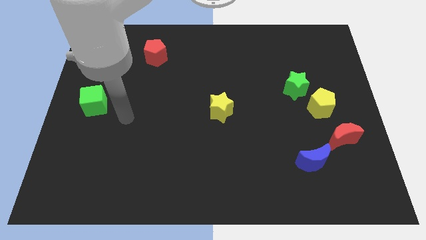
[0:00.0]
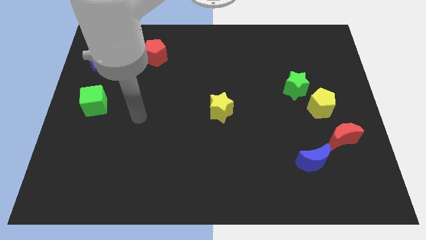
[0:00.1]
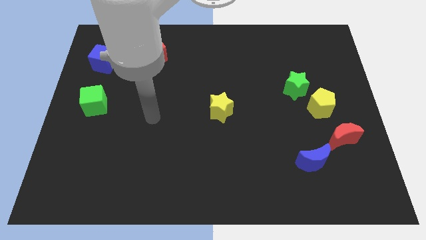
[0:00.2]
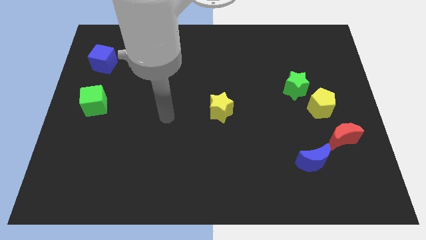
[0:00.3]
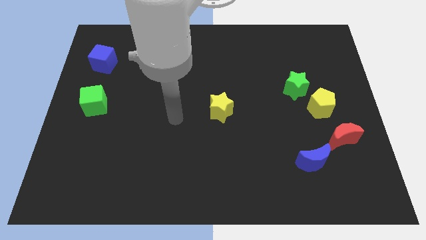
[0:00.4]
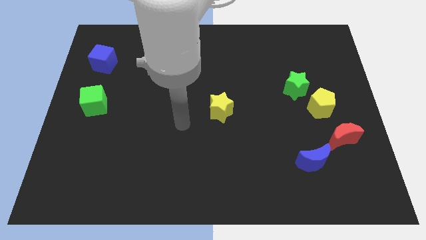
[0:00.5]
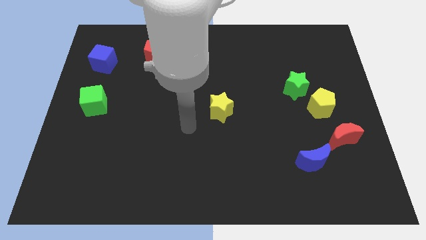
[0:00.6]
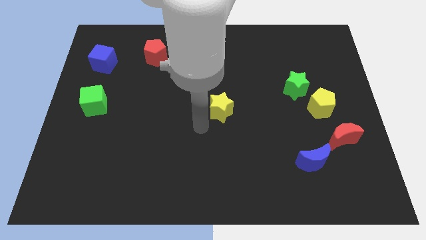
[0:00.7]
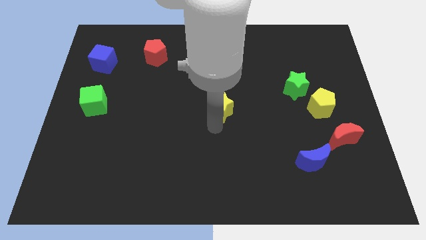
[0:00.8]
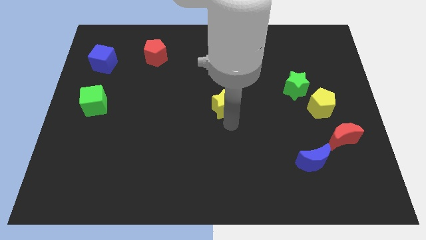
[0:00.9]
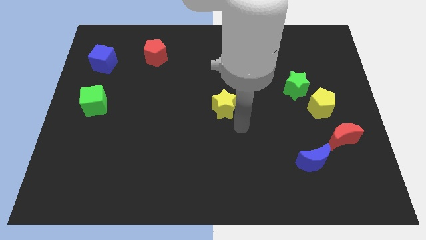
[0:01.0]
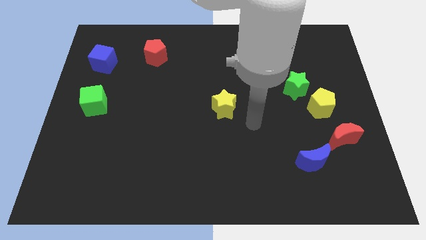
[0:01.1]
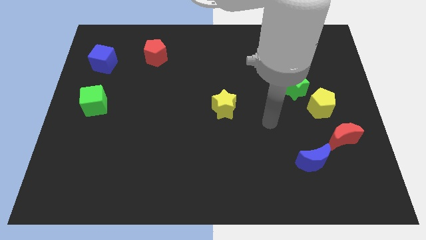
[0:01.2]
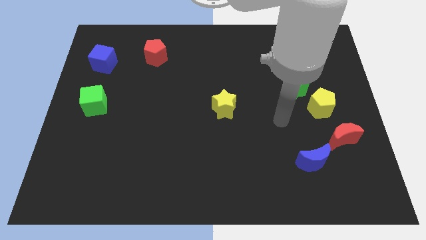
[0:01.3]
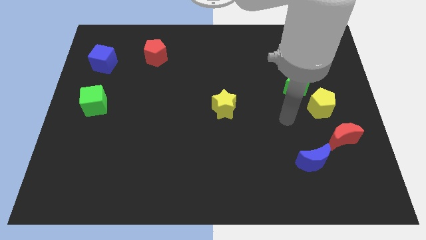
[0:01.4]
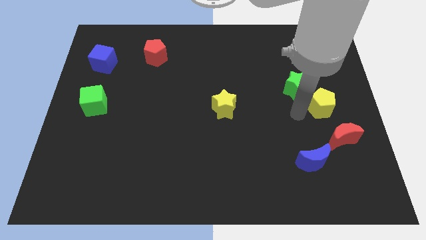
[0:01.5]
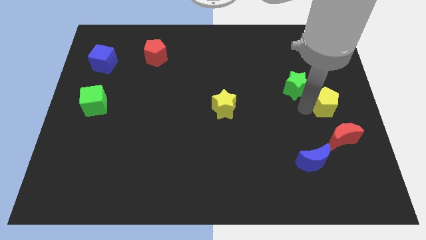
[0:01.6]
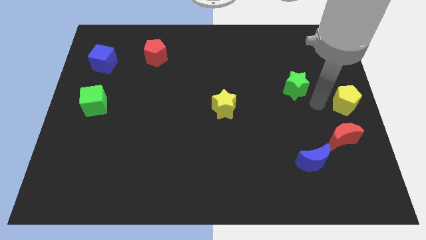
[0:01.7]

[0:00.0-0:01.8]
pull the green star apart from the yellow pentagon

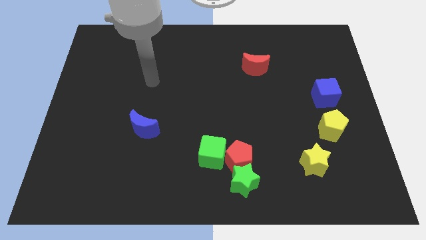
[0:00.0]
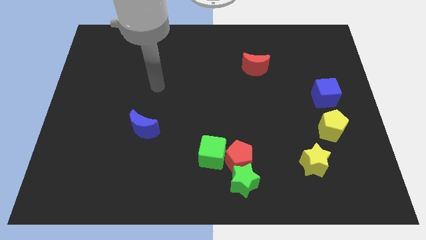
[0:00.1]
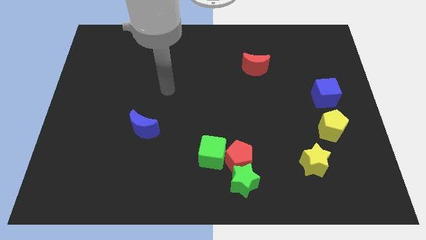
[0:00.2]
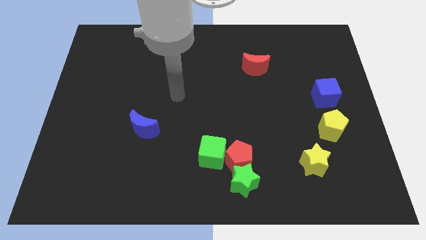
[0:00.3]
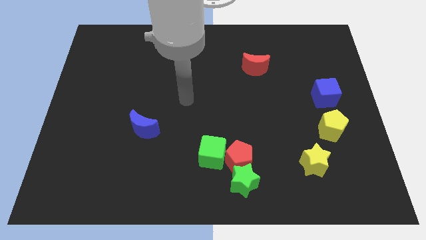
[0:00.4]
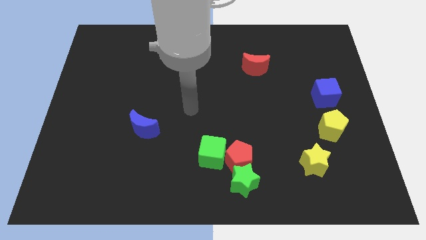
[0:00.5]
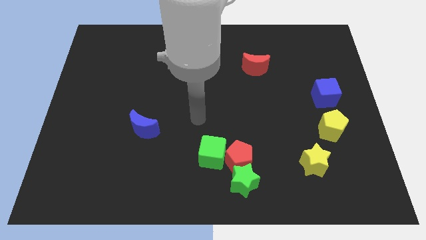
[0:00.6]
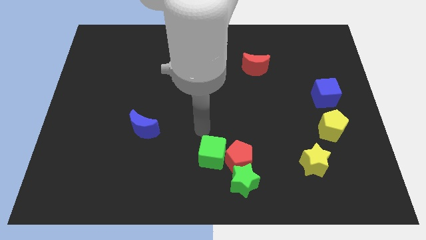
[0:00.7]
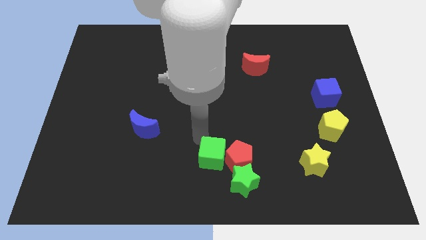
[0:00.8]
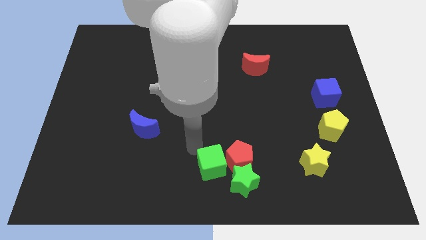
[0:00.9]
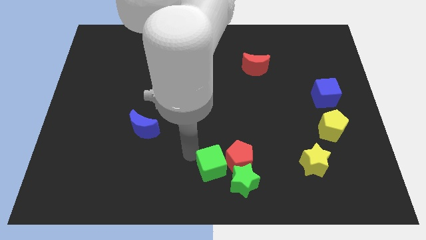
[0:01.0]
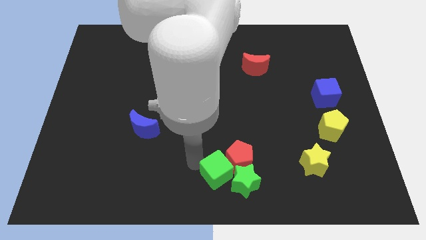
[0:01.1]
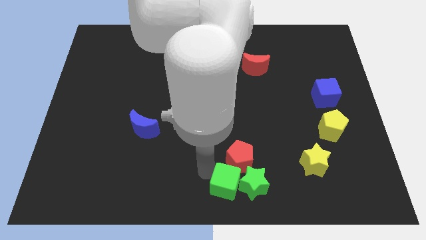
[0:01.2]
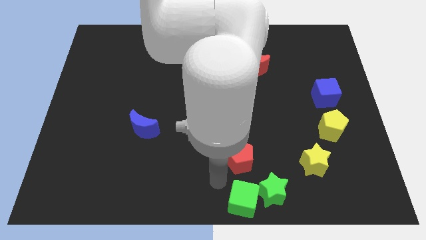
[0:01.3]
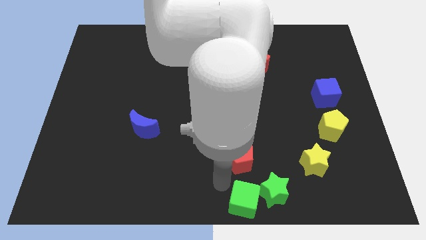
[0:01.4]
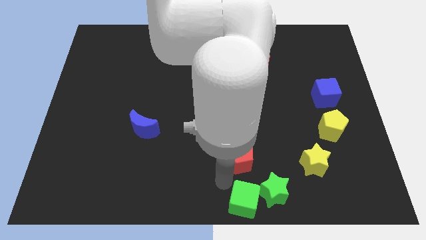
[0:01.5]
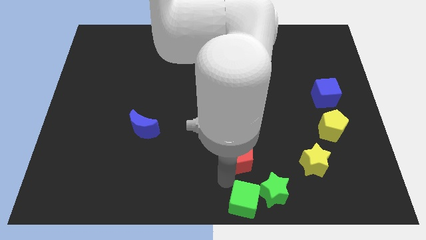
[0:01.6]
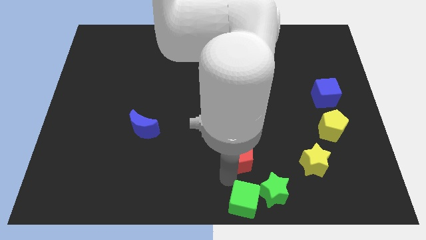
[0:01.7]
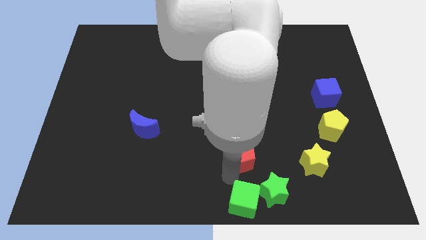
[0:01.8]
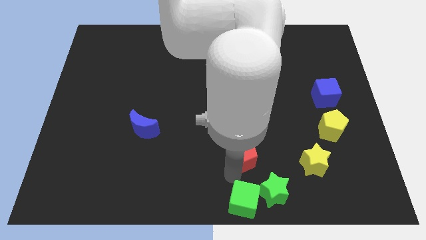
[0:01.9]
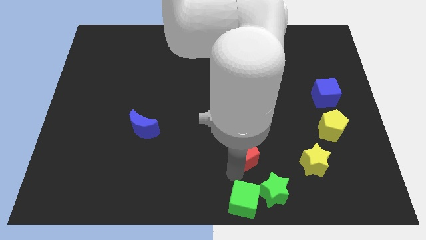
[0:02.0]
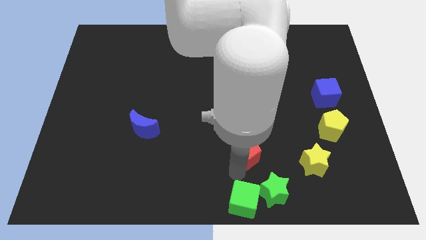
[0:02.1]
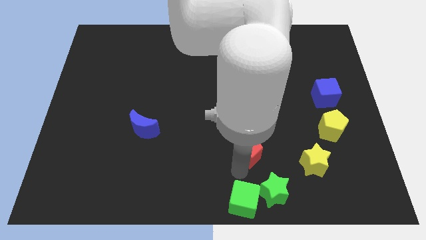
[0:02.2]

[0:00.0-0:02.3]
move the red pentagon away from the green star and green cube

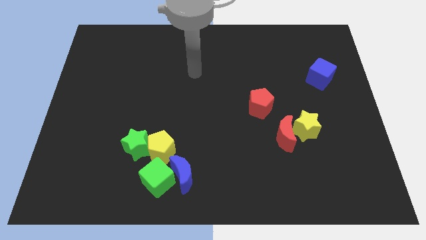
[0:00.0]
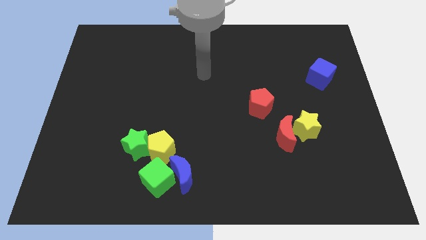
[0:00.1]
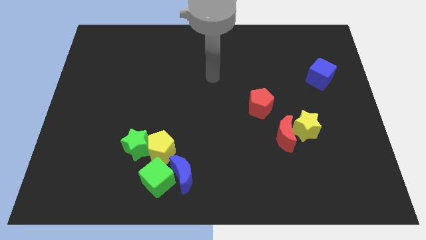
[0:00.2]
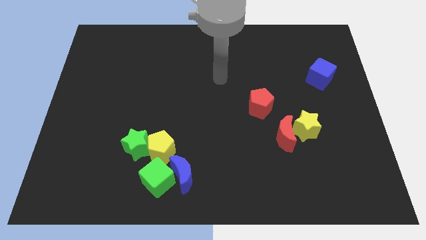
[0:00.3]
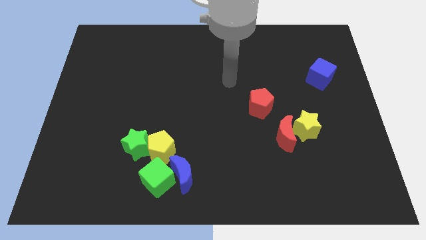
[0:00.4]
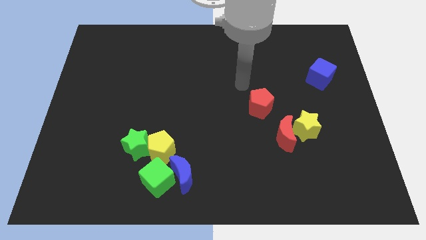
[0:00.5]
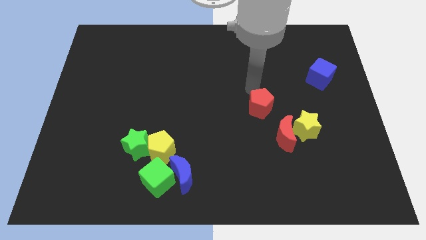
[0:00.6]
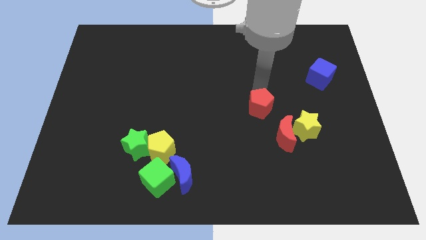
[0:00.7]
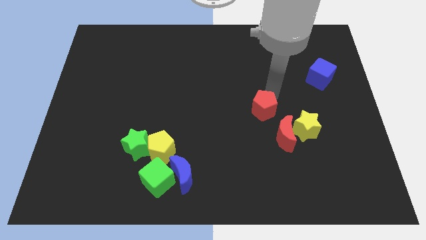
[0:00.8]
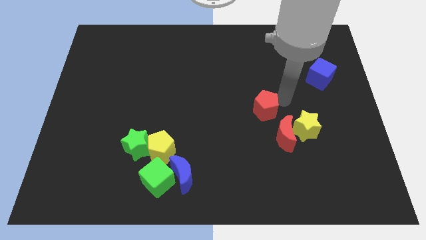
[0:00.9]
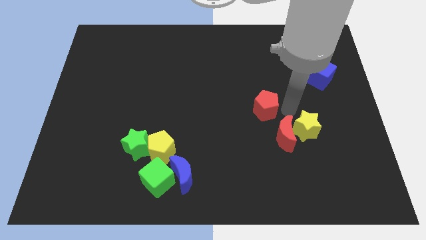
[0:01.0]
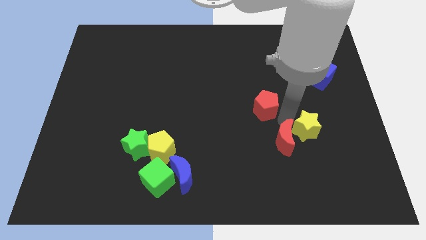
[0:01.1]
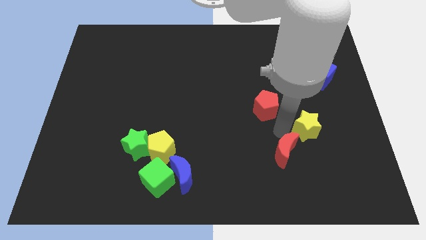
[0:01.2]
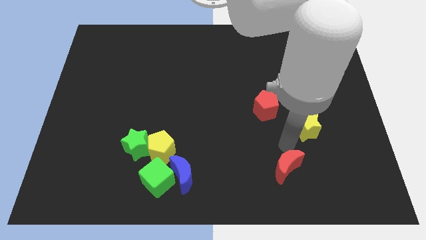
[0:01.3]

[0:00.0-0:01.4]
pull the yellow star apart from the red moon

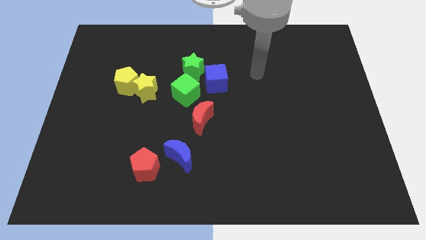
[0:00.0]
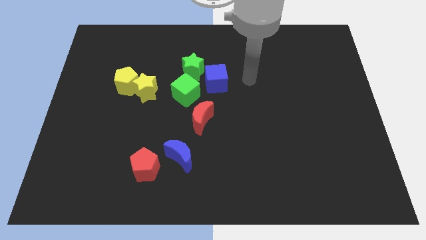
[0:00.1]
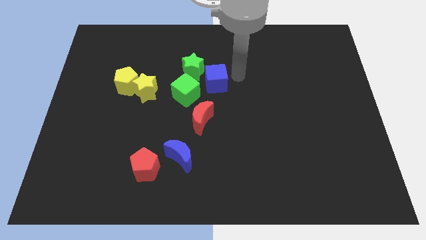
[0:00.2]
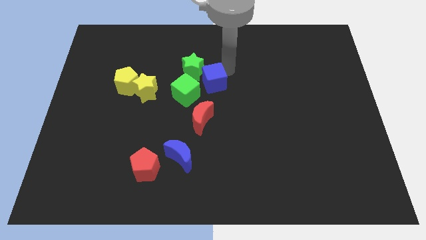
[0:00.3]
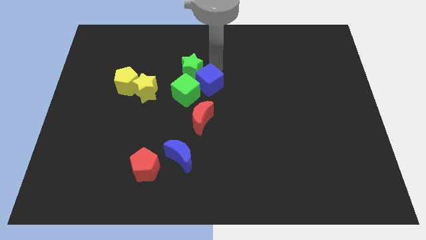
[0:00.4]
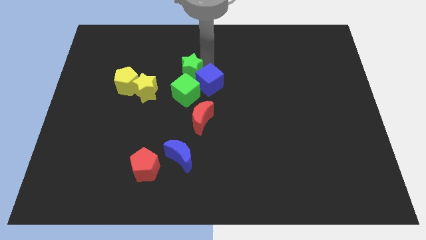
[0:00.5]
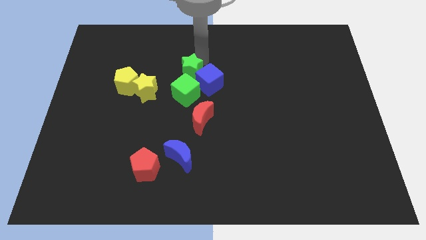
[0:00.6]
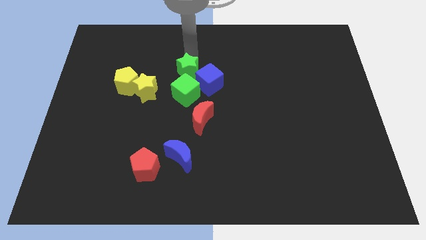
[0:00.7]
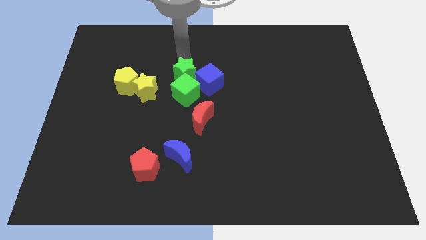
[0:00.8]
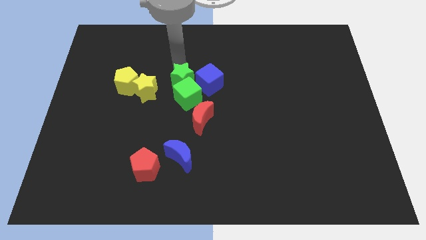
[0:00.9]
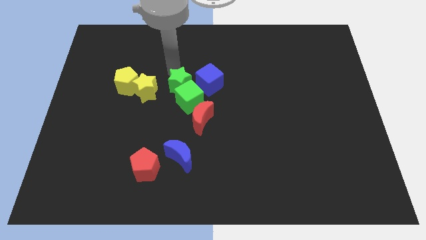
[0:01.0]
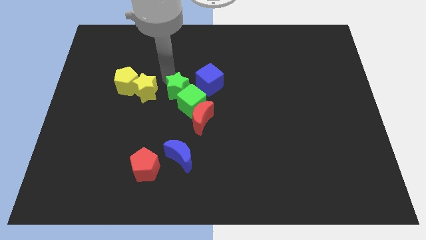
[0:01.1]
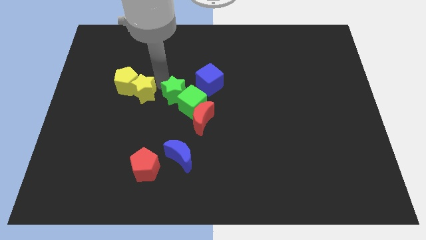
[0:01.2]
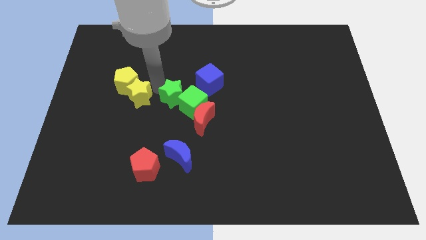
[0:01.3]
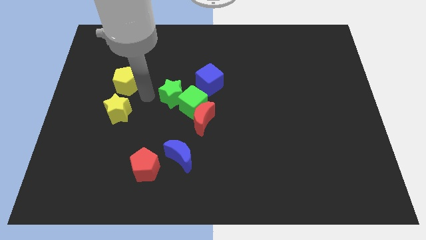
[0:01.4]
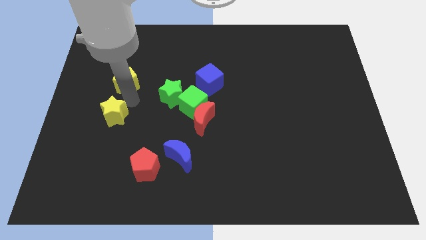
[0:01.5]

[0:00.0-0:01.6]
move the yellow pentagon away from the yellow star

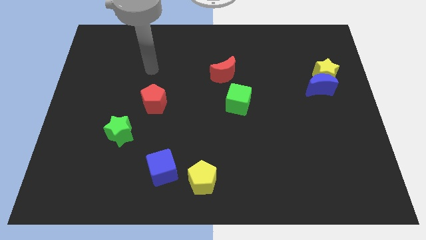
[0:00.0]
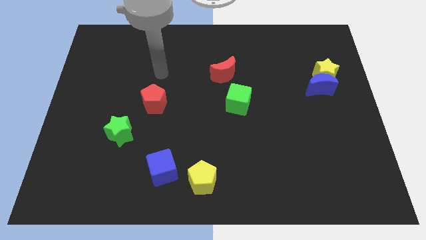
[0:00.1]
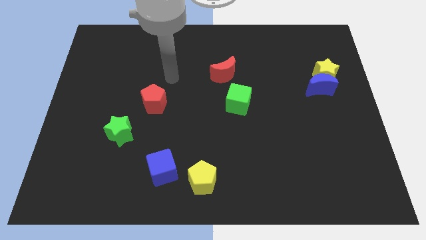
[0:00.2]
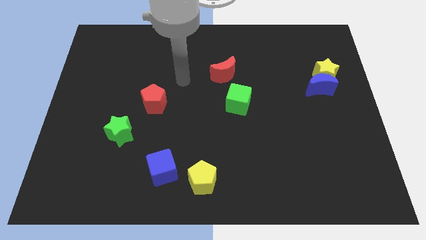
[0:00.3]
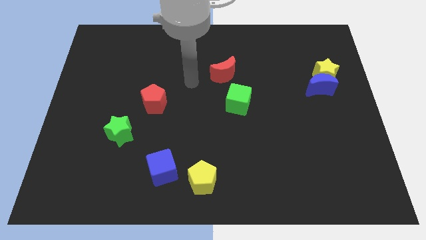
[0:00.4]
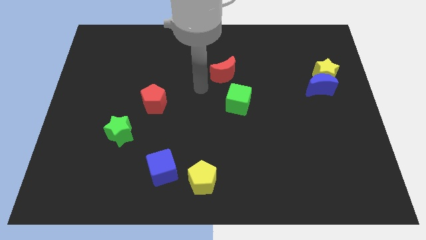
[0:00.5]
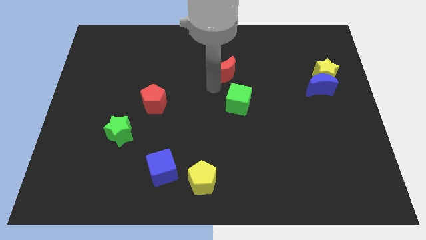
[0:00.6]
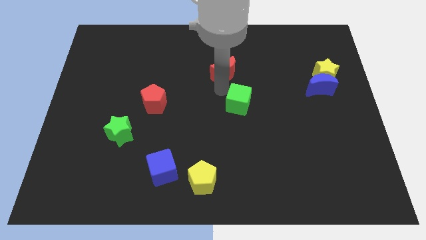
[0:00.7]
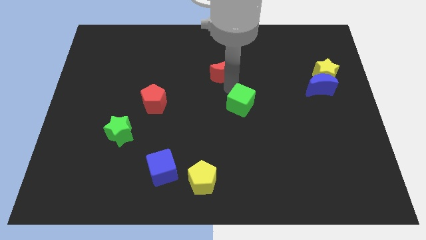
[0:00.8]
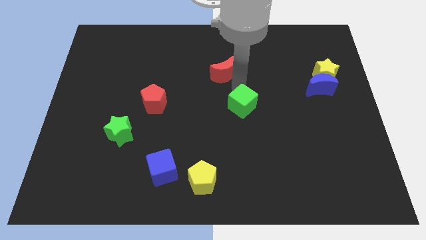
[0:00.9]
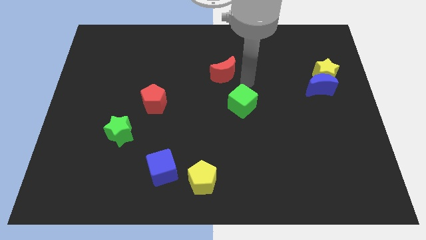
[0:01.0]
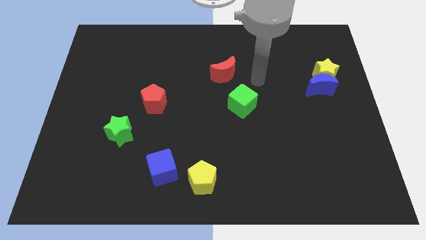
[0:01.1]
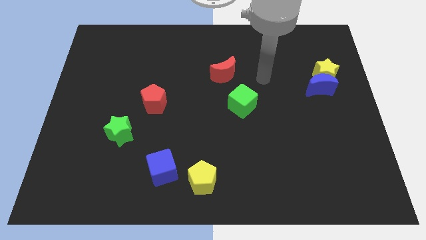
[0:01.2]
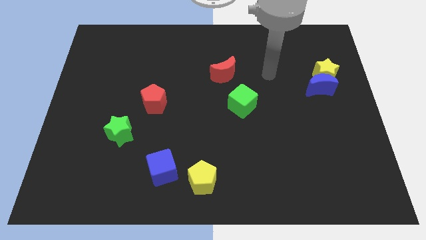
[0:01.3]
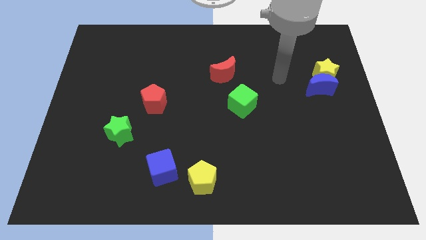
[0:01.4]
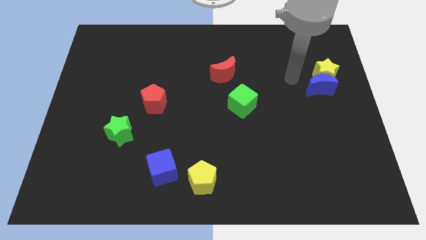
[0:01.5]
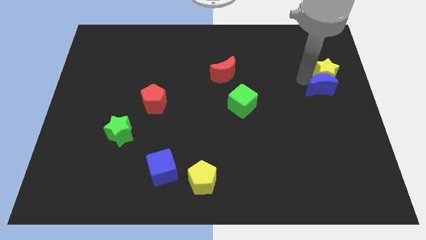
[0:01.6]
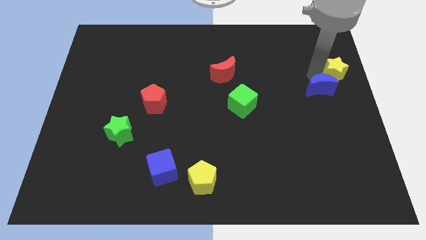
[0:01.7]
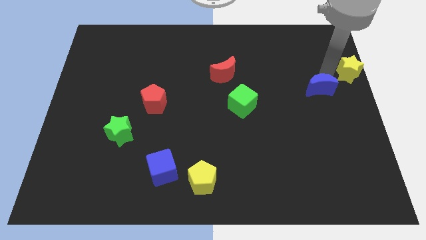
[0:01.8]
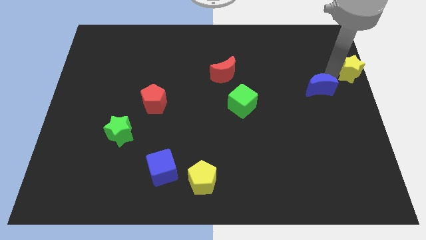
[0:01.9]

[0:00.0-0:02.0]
separate the blue moon from the yellow star
